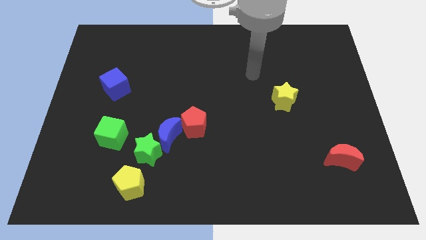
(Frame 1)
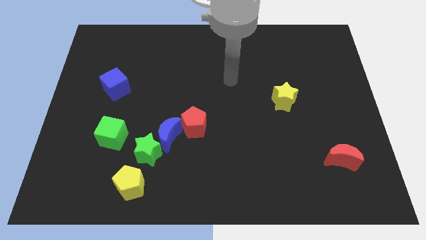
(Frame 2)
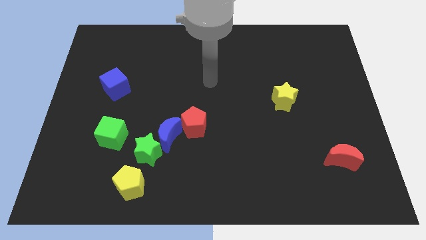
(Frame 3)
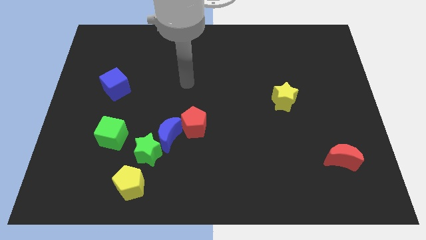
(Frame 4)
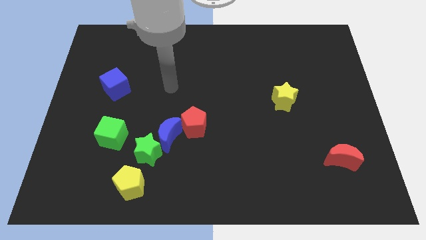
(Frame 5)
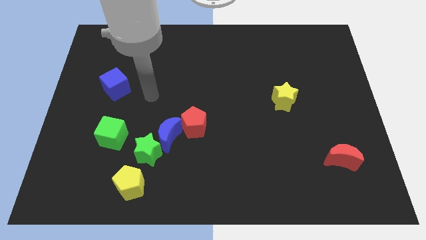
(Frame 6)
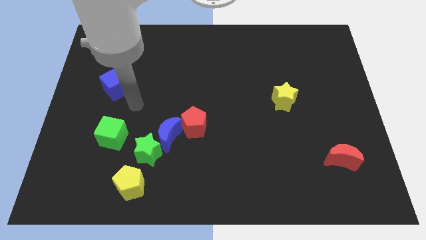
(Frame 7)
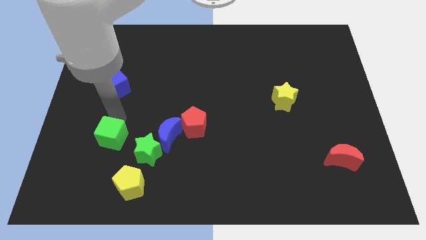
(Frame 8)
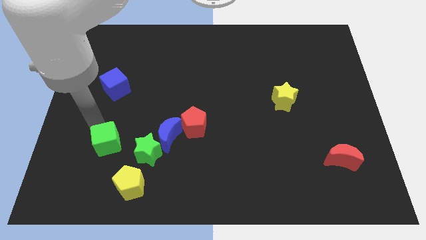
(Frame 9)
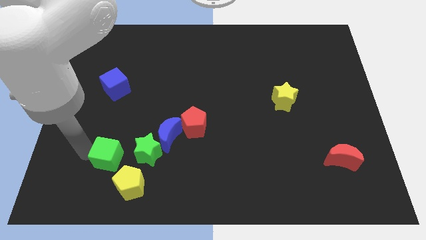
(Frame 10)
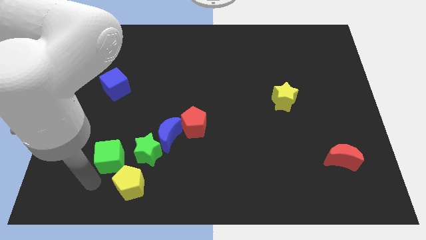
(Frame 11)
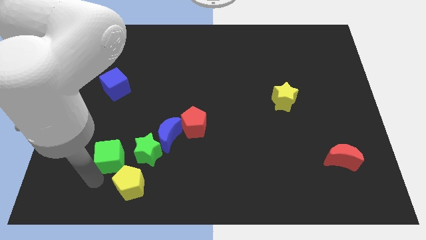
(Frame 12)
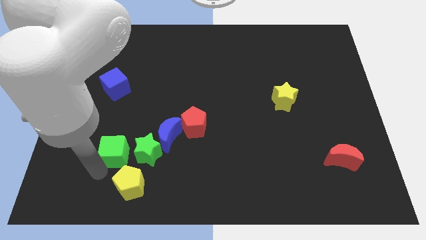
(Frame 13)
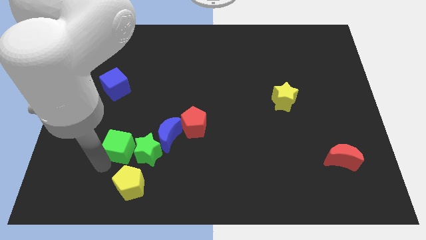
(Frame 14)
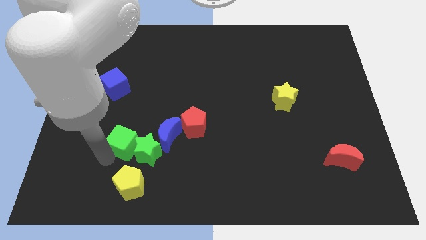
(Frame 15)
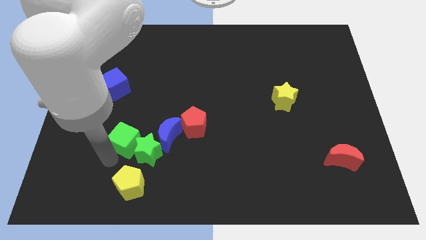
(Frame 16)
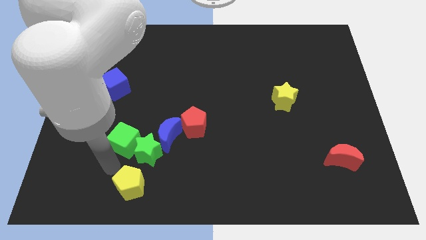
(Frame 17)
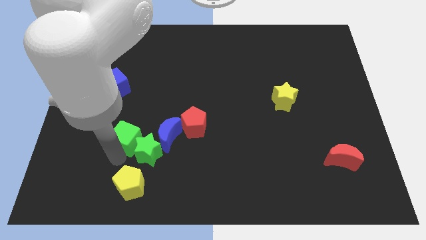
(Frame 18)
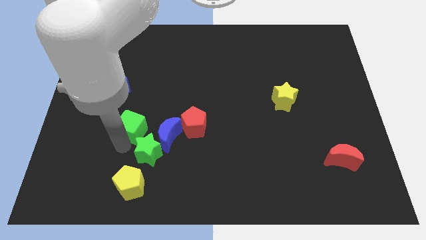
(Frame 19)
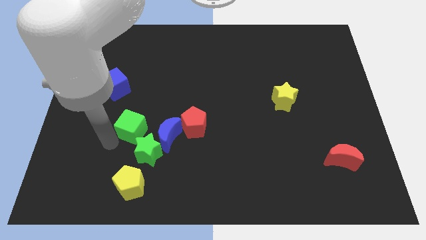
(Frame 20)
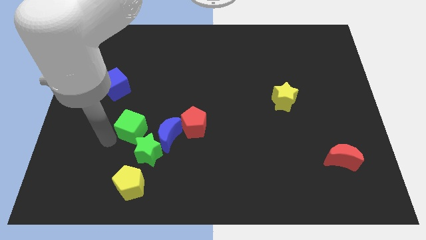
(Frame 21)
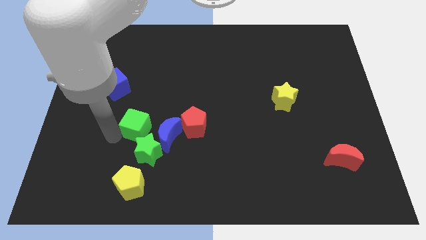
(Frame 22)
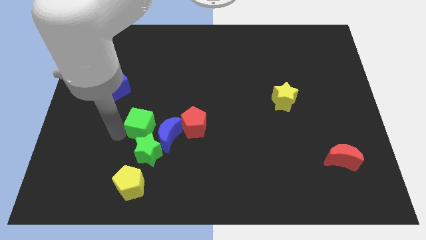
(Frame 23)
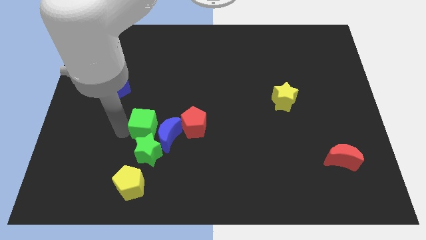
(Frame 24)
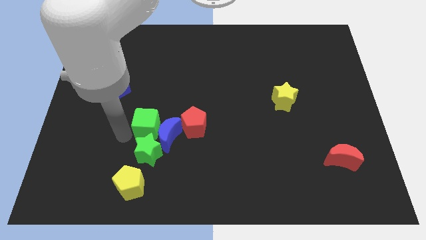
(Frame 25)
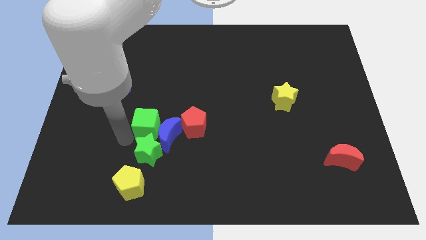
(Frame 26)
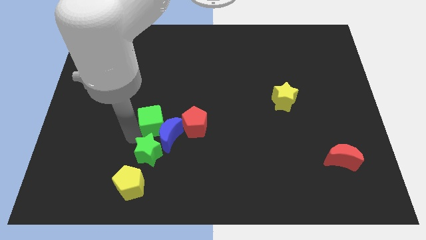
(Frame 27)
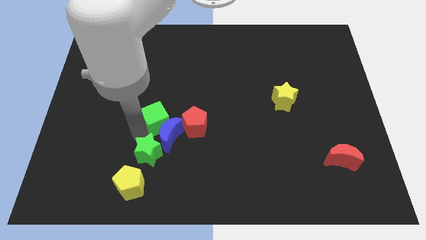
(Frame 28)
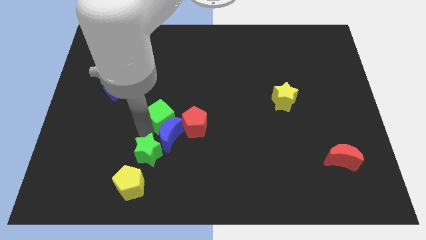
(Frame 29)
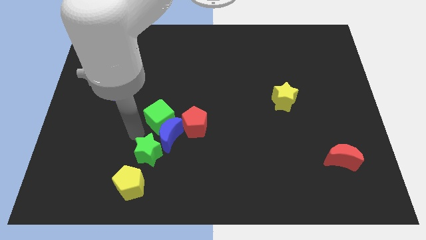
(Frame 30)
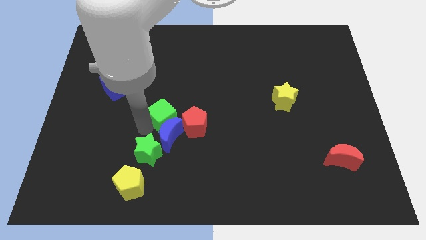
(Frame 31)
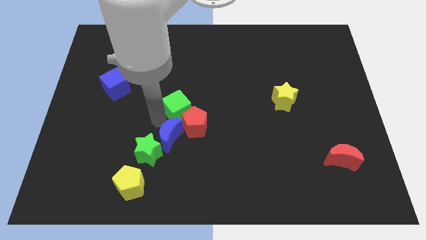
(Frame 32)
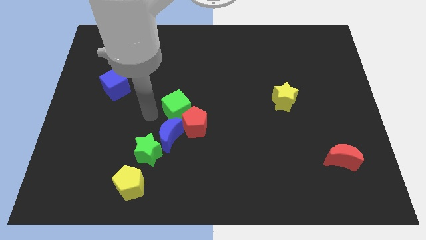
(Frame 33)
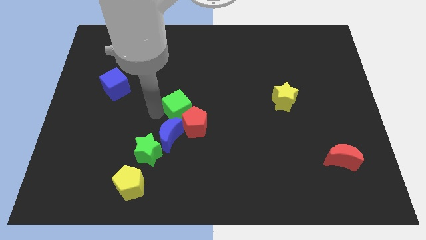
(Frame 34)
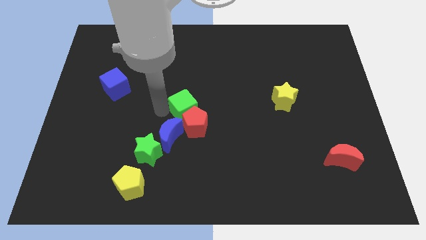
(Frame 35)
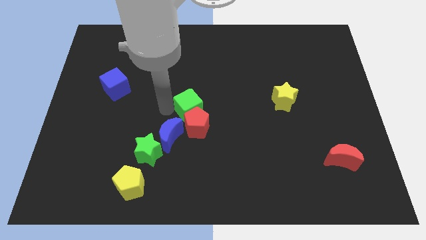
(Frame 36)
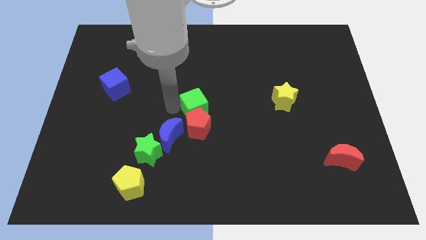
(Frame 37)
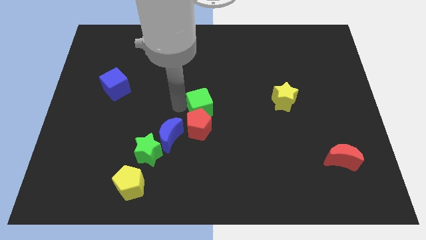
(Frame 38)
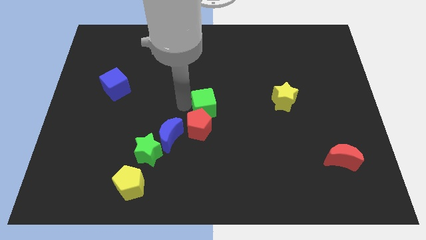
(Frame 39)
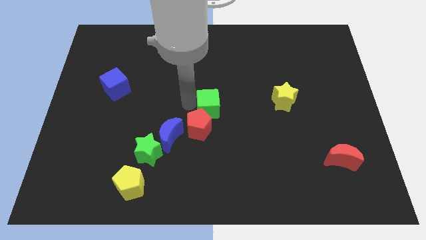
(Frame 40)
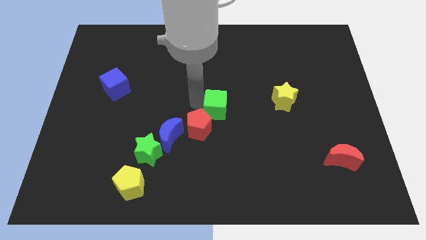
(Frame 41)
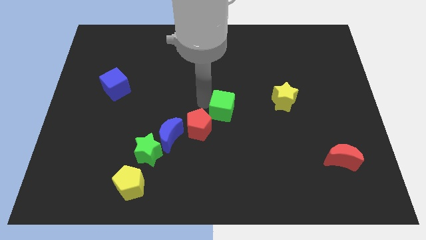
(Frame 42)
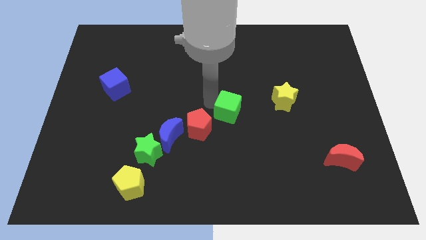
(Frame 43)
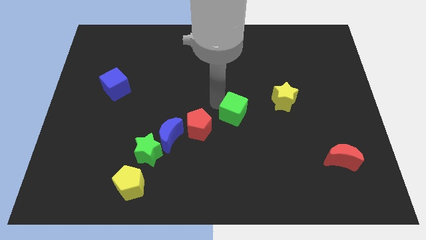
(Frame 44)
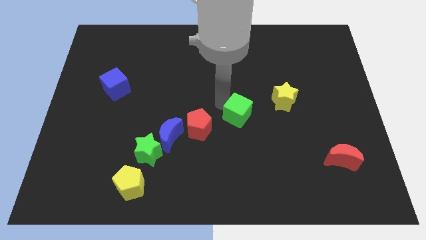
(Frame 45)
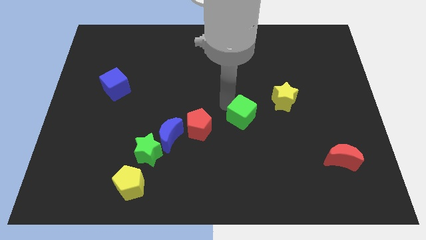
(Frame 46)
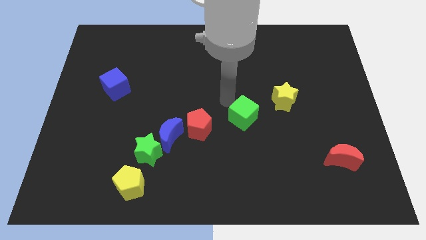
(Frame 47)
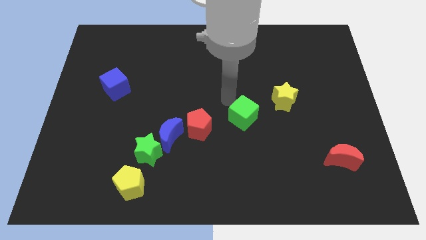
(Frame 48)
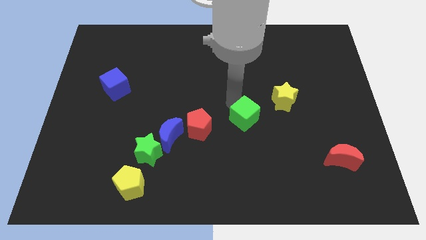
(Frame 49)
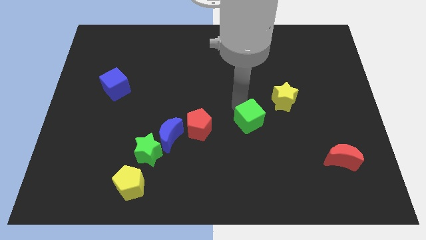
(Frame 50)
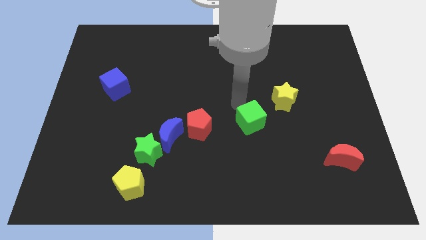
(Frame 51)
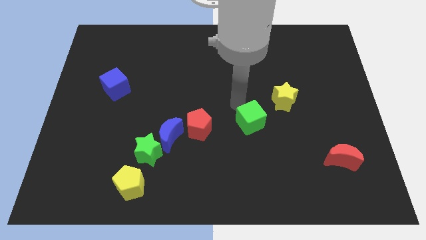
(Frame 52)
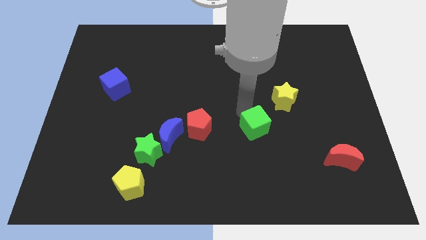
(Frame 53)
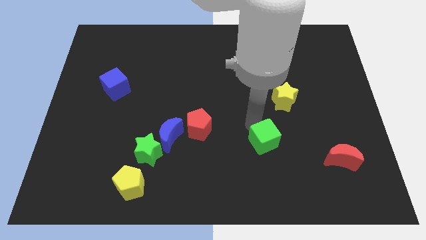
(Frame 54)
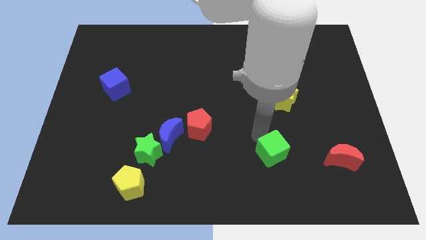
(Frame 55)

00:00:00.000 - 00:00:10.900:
move the green cube to the left side of the red moon
